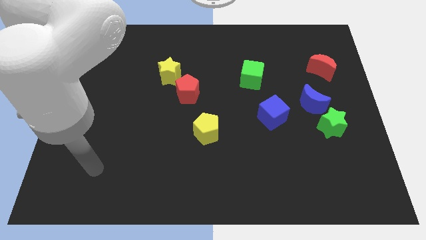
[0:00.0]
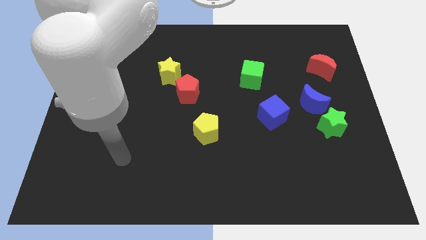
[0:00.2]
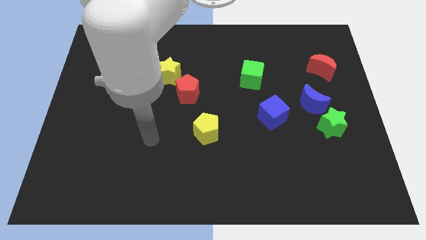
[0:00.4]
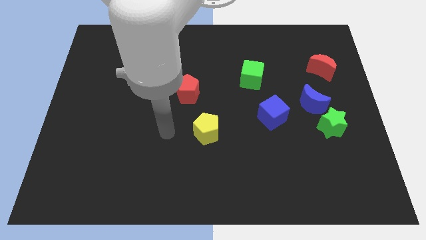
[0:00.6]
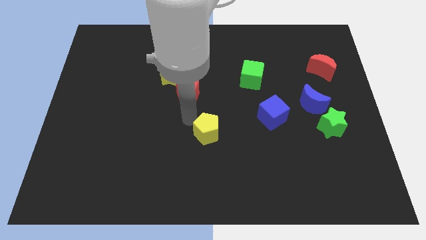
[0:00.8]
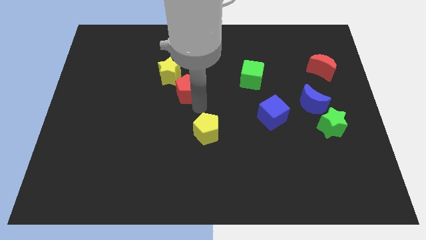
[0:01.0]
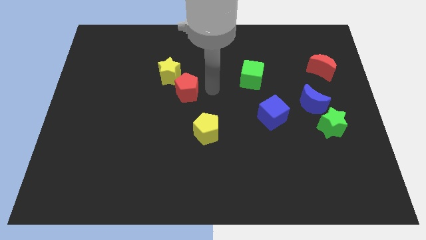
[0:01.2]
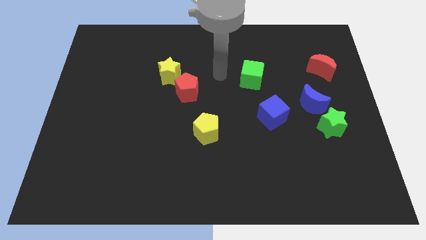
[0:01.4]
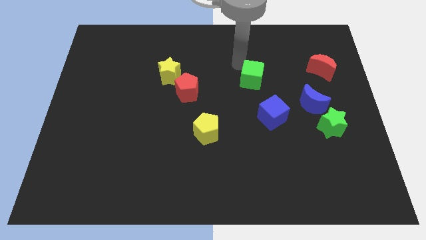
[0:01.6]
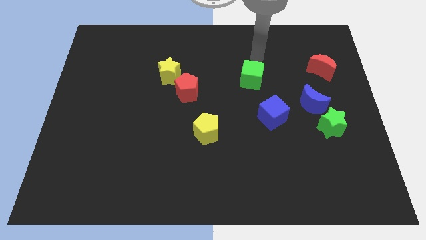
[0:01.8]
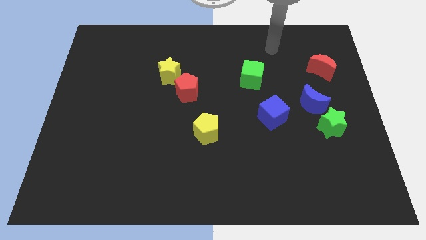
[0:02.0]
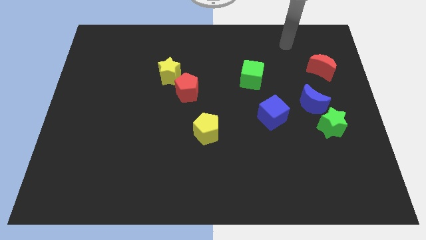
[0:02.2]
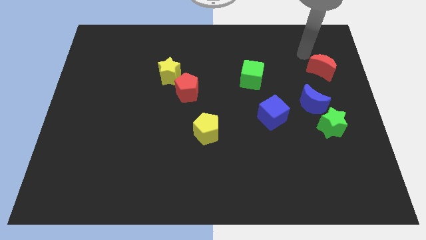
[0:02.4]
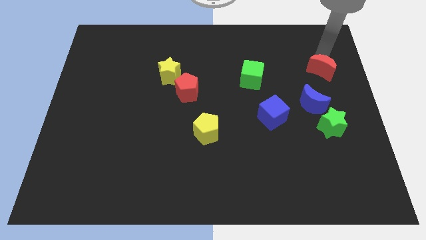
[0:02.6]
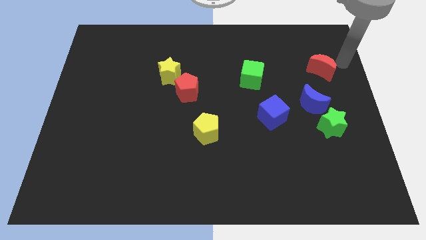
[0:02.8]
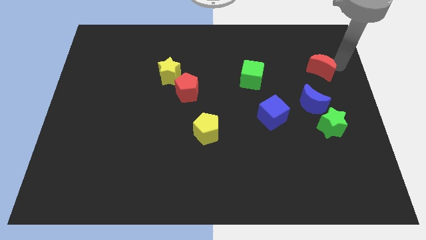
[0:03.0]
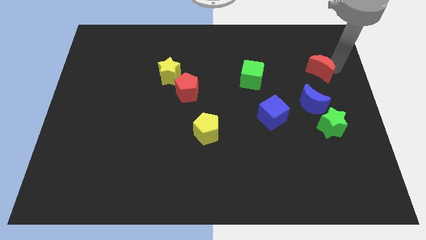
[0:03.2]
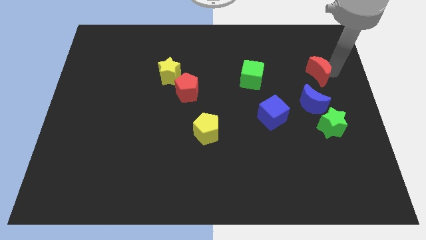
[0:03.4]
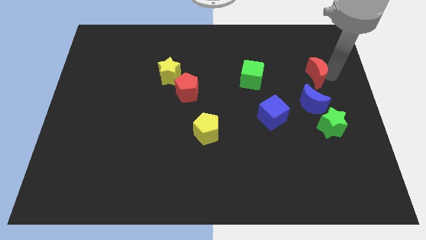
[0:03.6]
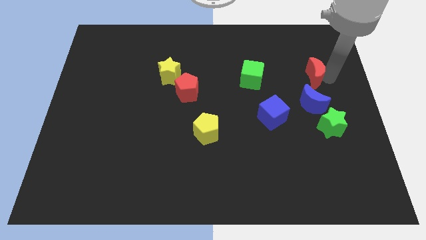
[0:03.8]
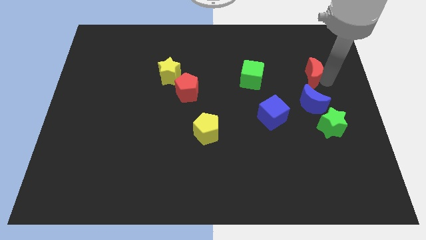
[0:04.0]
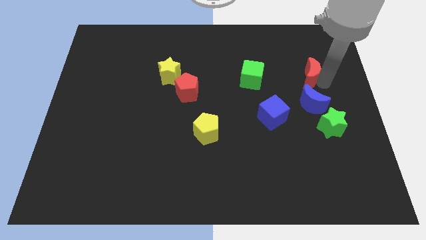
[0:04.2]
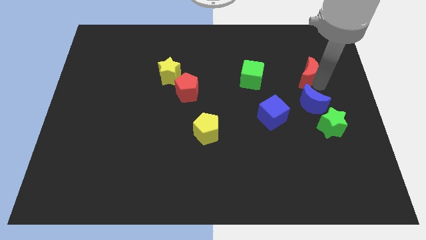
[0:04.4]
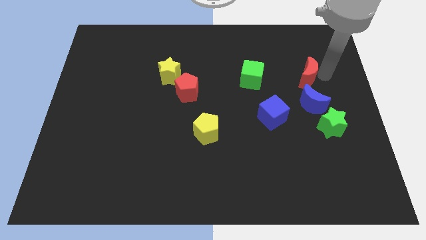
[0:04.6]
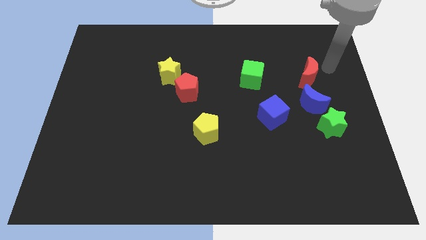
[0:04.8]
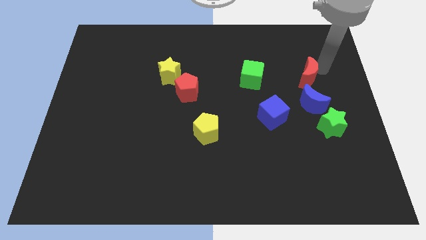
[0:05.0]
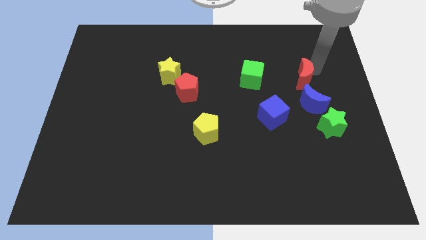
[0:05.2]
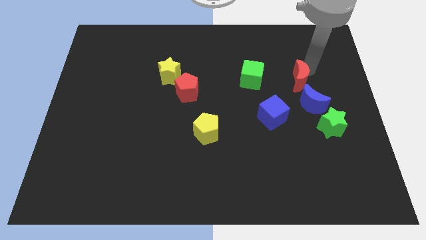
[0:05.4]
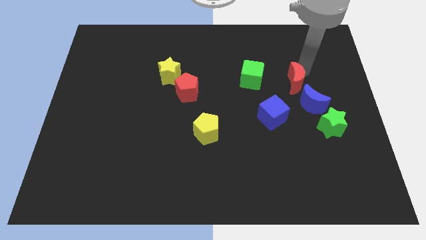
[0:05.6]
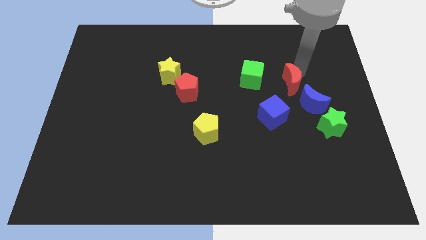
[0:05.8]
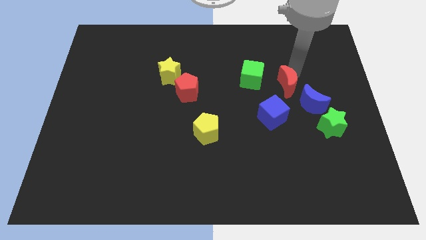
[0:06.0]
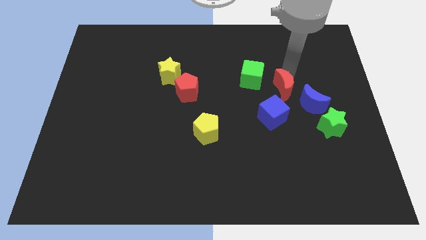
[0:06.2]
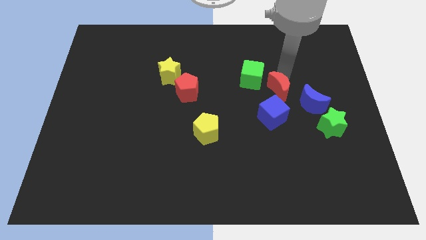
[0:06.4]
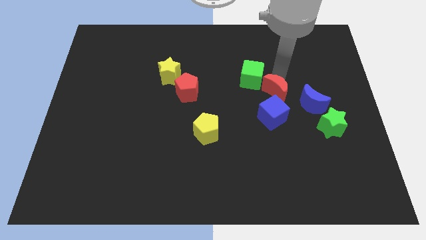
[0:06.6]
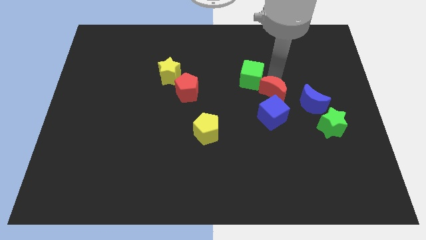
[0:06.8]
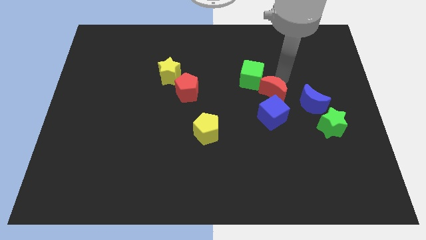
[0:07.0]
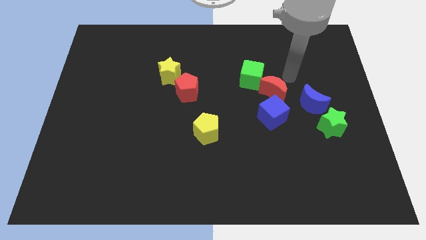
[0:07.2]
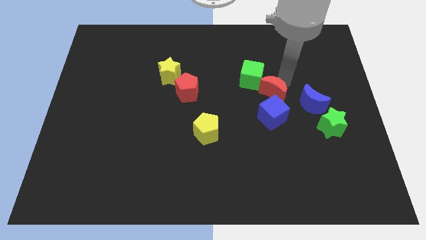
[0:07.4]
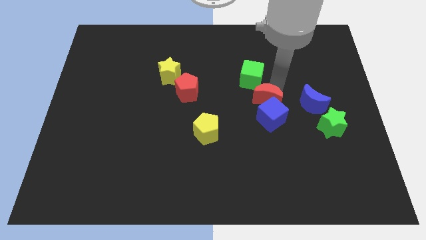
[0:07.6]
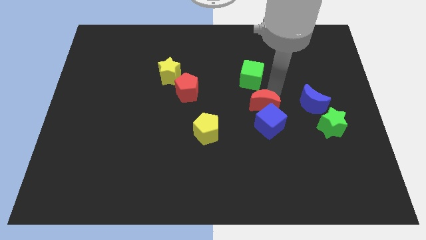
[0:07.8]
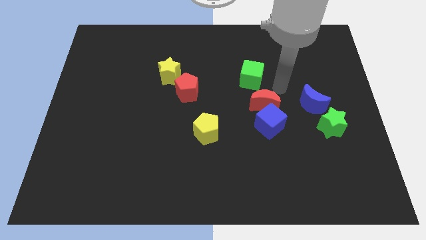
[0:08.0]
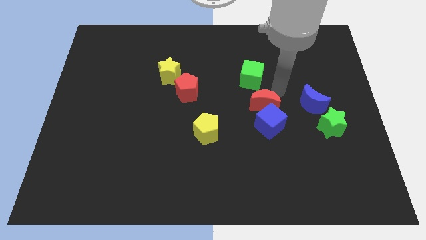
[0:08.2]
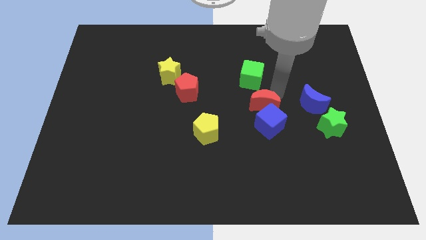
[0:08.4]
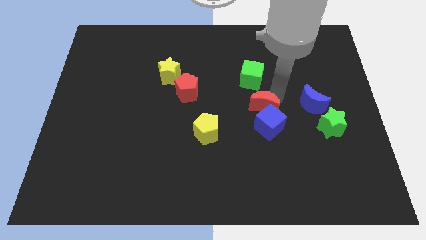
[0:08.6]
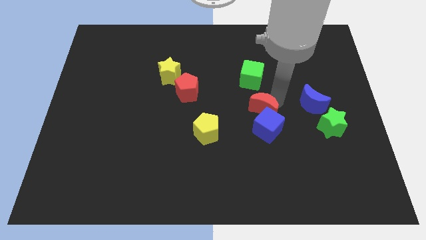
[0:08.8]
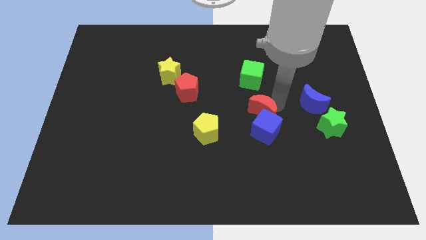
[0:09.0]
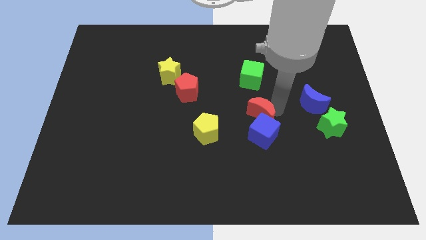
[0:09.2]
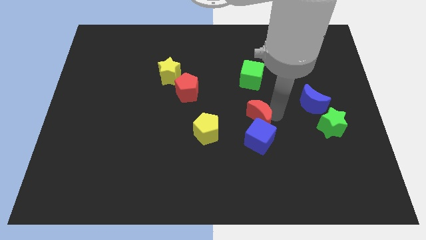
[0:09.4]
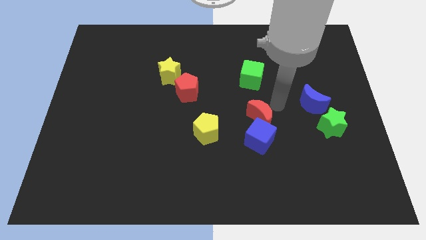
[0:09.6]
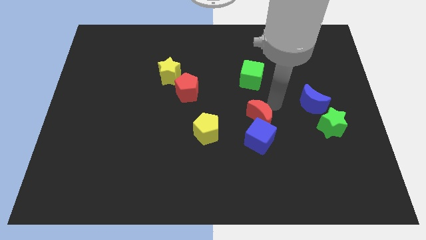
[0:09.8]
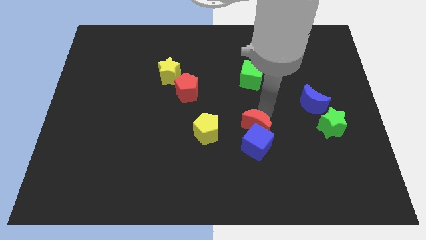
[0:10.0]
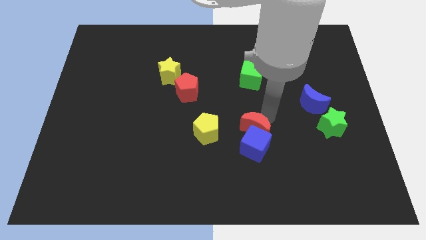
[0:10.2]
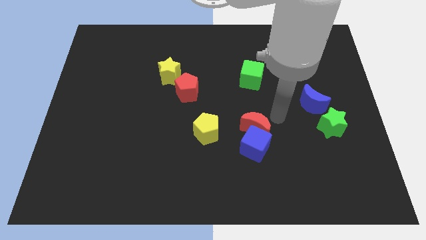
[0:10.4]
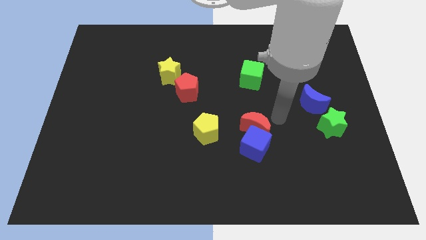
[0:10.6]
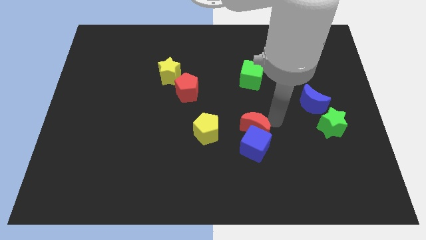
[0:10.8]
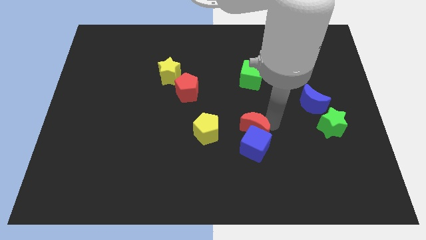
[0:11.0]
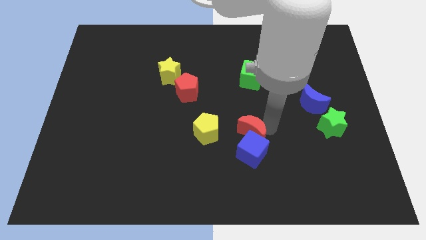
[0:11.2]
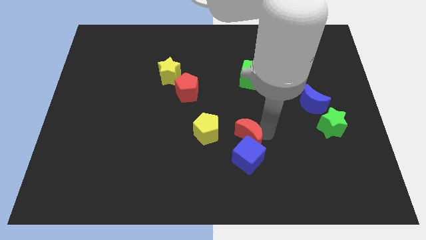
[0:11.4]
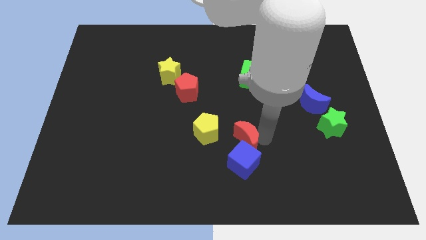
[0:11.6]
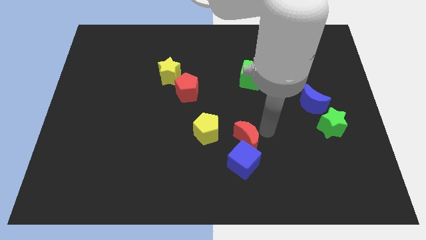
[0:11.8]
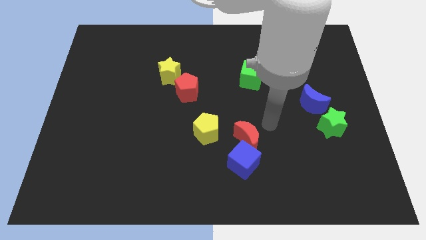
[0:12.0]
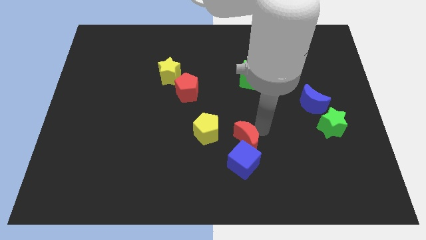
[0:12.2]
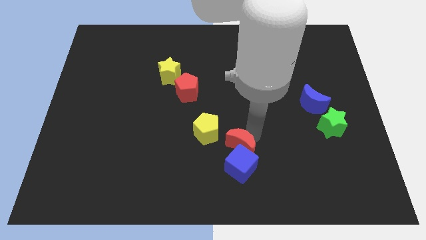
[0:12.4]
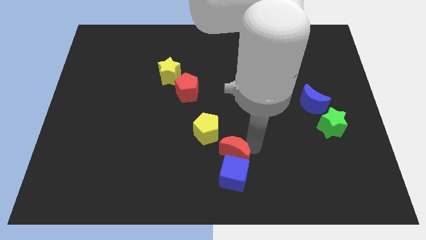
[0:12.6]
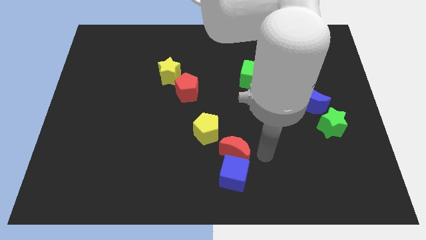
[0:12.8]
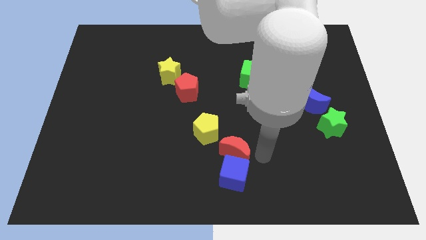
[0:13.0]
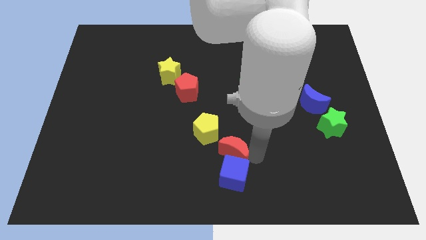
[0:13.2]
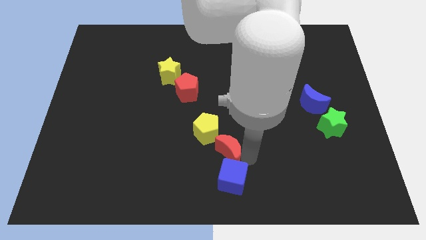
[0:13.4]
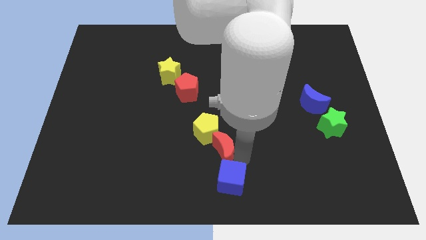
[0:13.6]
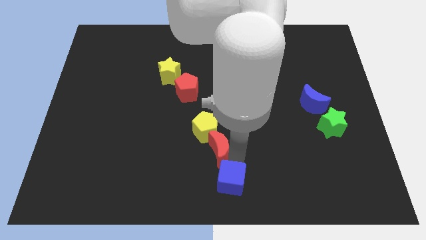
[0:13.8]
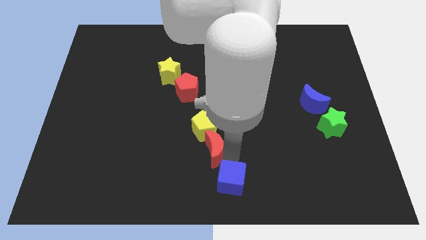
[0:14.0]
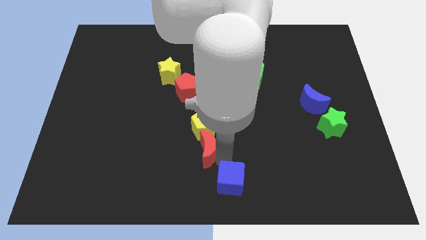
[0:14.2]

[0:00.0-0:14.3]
slide the red moon diagonally down and to the left of the yellow pentagon
